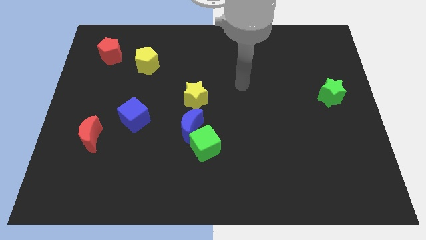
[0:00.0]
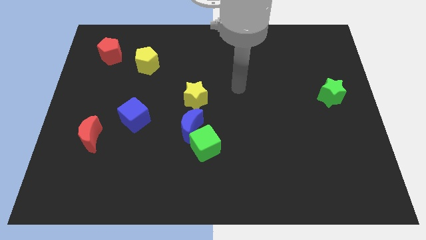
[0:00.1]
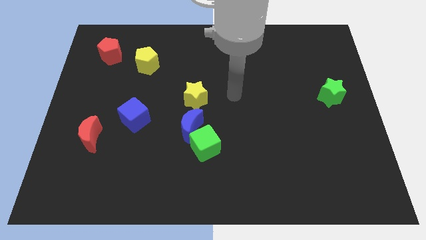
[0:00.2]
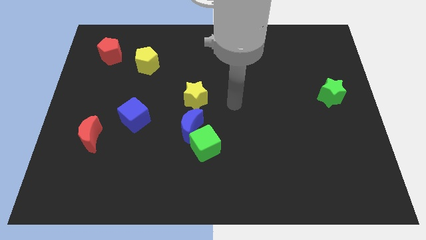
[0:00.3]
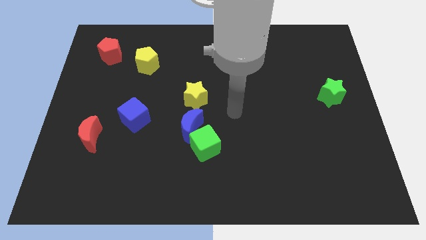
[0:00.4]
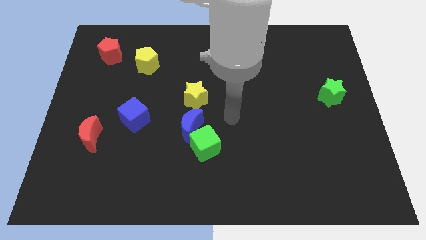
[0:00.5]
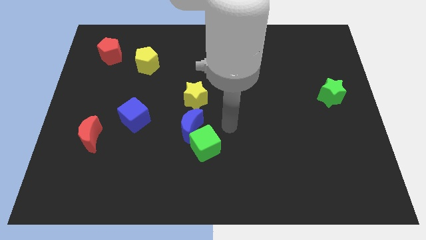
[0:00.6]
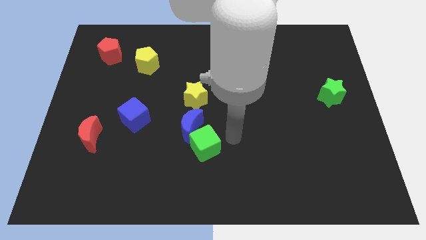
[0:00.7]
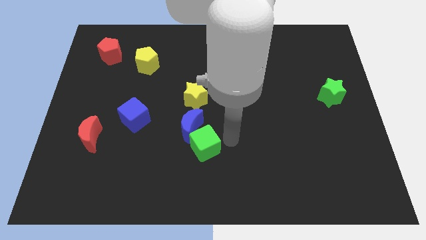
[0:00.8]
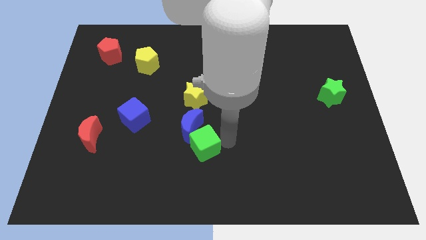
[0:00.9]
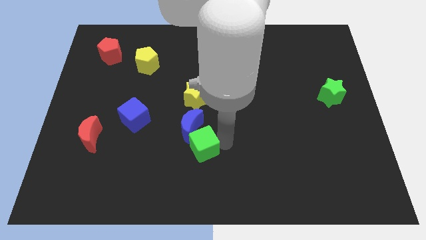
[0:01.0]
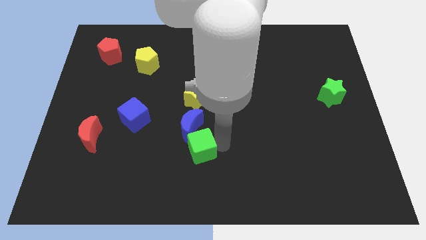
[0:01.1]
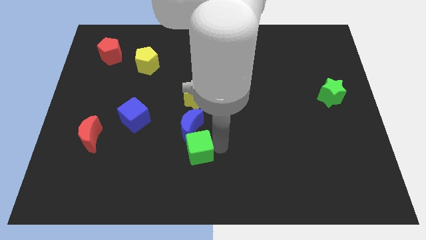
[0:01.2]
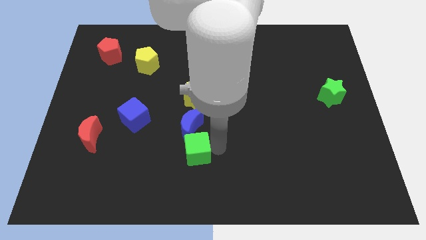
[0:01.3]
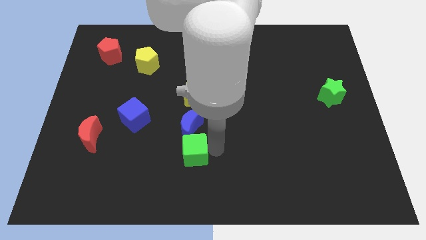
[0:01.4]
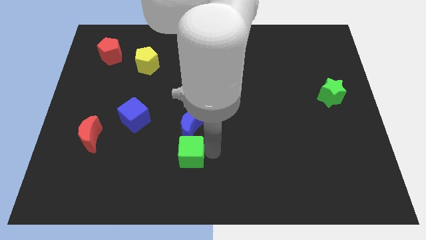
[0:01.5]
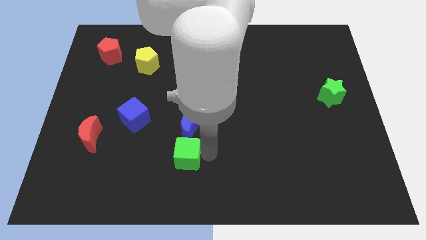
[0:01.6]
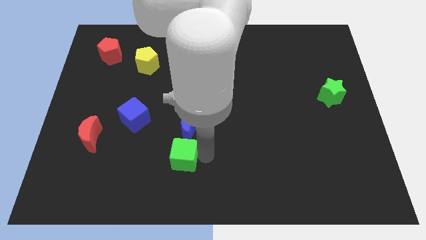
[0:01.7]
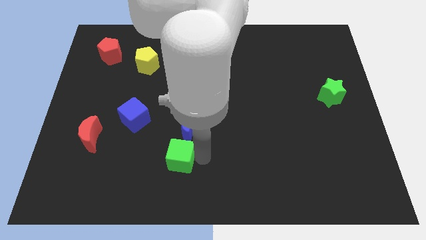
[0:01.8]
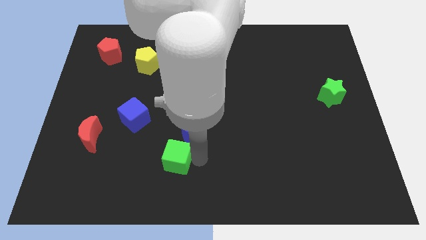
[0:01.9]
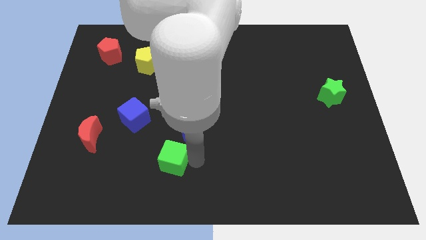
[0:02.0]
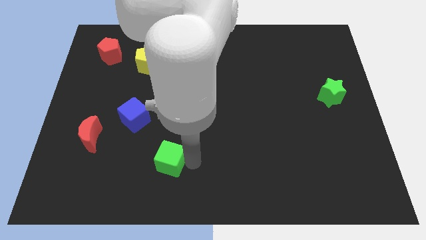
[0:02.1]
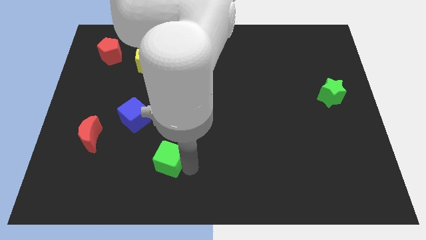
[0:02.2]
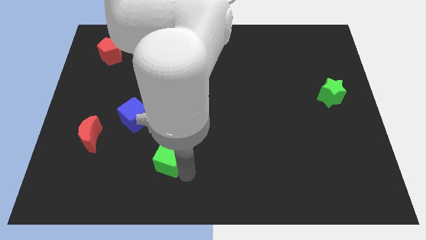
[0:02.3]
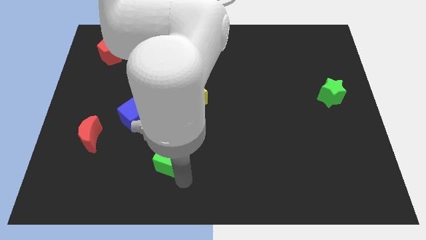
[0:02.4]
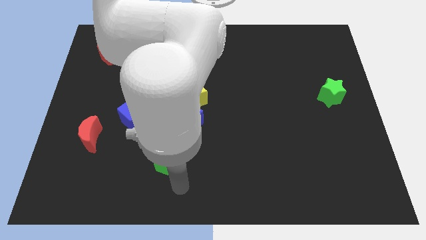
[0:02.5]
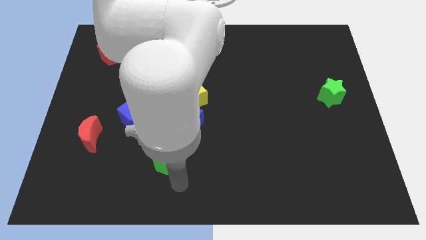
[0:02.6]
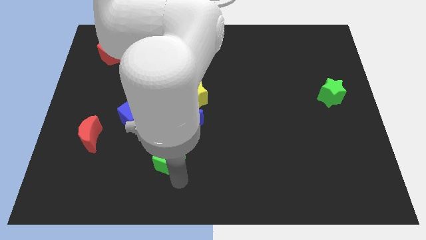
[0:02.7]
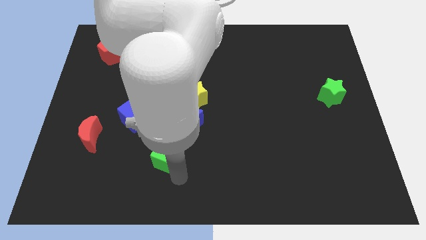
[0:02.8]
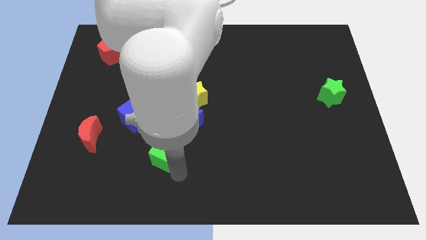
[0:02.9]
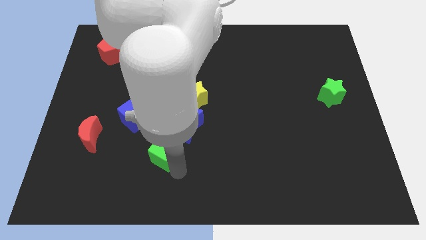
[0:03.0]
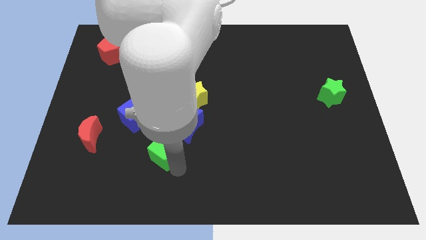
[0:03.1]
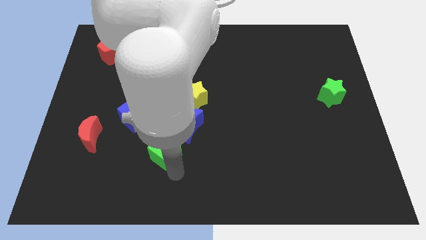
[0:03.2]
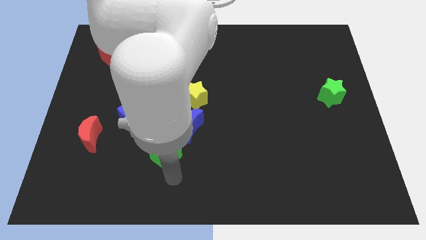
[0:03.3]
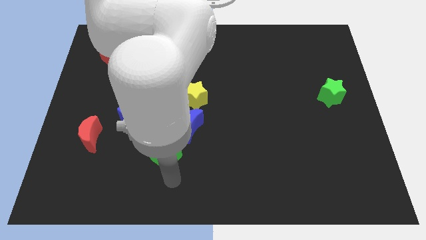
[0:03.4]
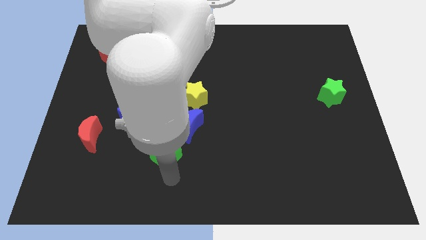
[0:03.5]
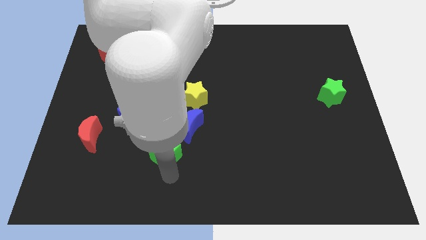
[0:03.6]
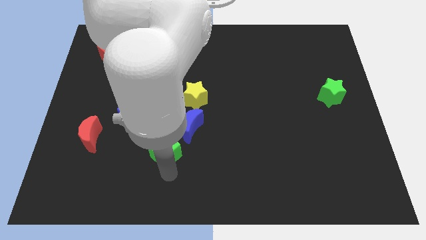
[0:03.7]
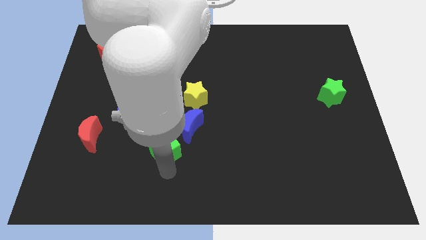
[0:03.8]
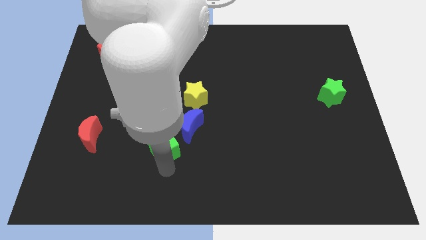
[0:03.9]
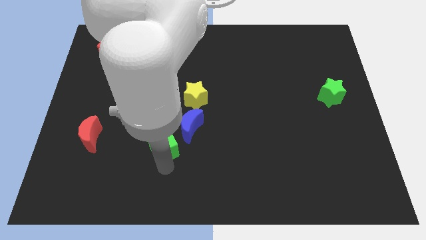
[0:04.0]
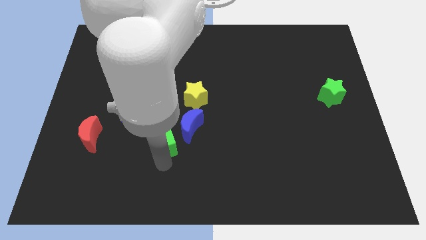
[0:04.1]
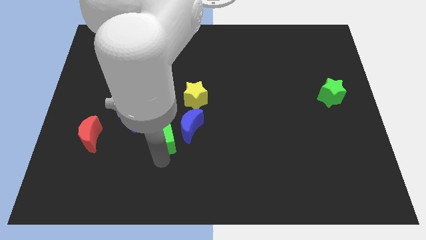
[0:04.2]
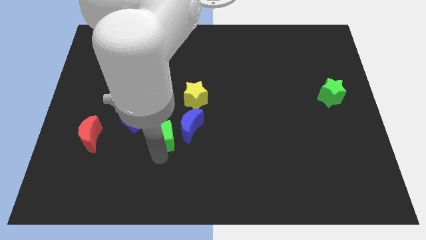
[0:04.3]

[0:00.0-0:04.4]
push the green cube a little up and then left

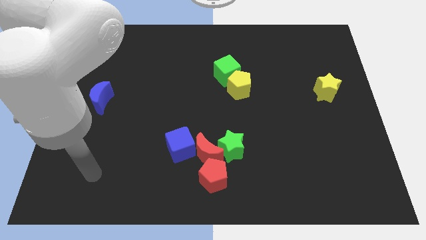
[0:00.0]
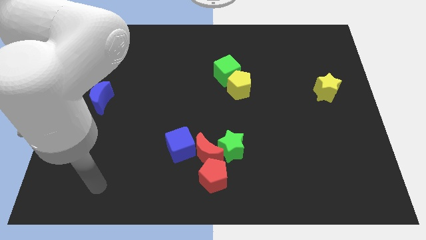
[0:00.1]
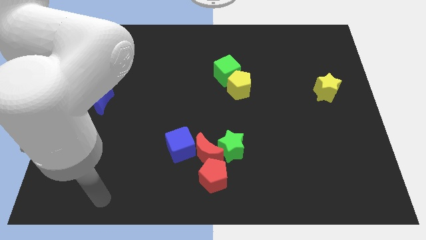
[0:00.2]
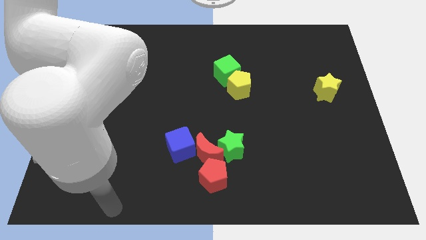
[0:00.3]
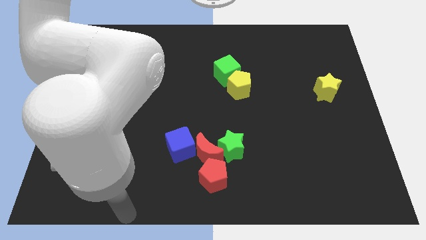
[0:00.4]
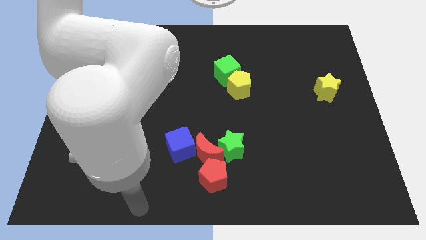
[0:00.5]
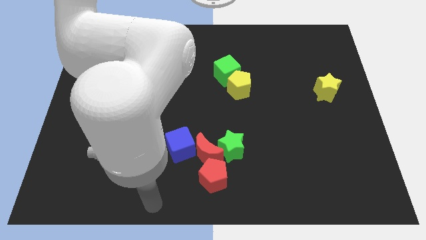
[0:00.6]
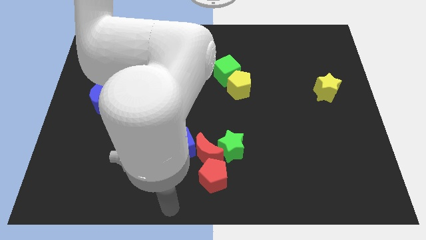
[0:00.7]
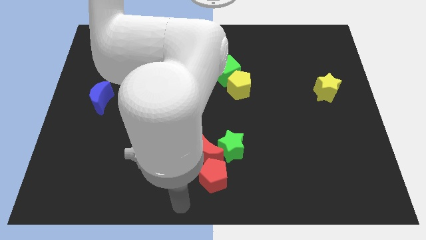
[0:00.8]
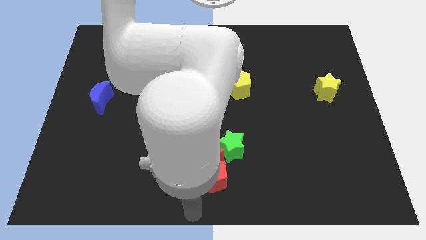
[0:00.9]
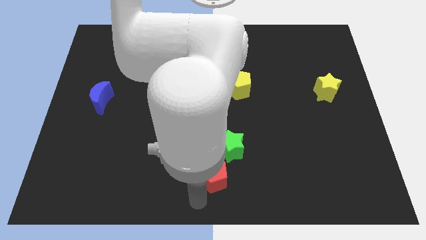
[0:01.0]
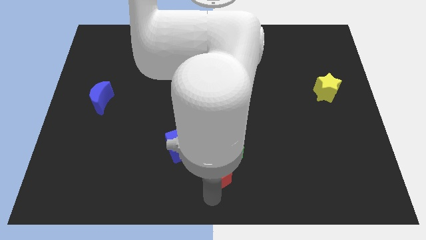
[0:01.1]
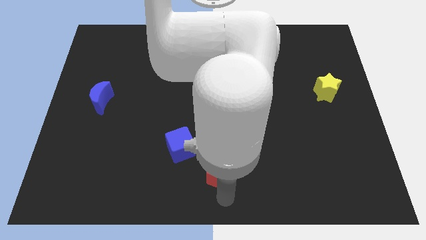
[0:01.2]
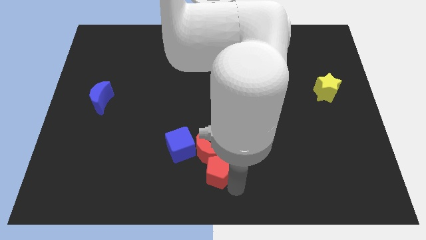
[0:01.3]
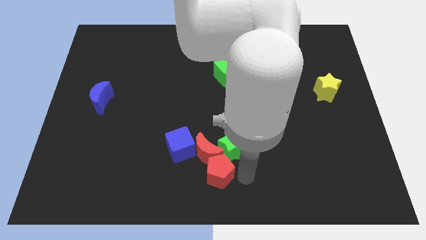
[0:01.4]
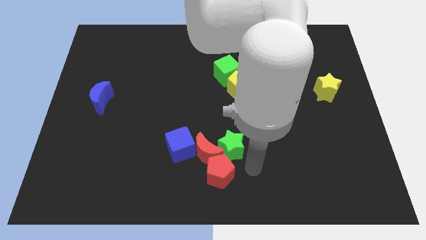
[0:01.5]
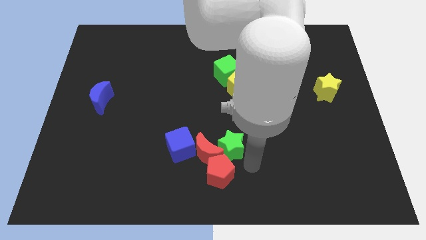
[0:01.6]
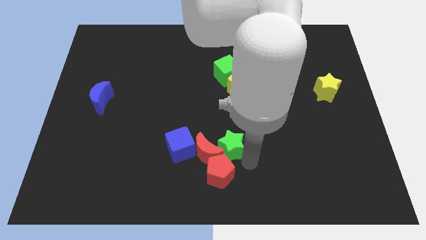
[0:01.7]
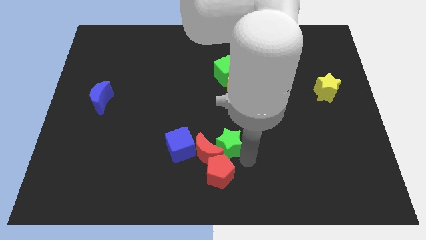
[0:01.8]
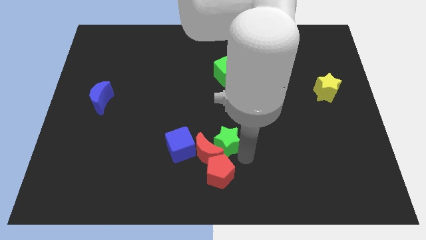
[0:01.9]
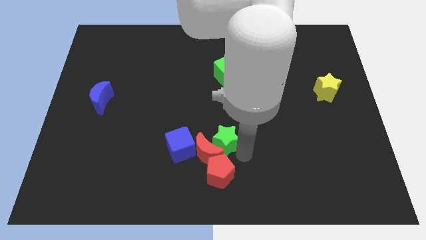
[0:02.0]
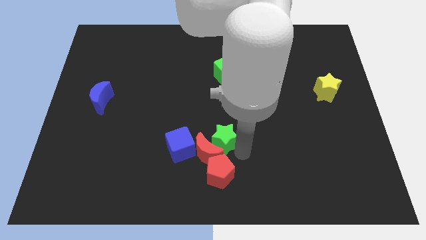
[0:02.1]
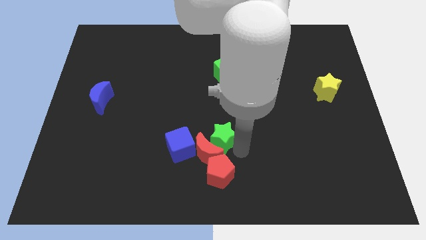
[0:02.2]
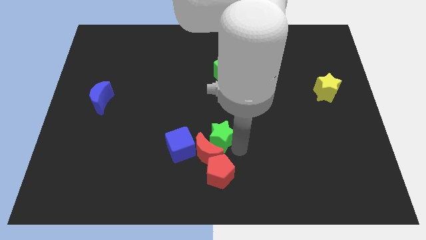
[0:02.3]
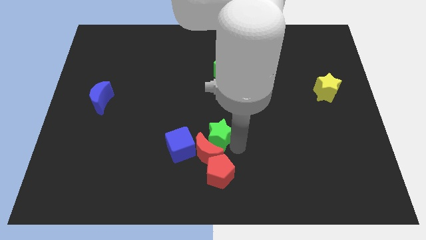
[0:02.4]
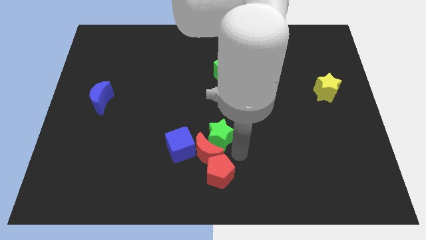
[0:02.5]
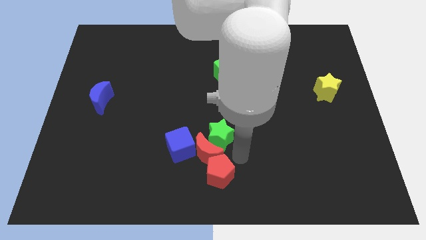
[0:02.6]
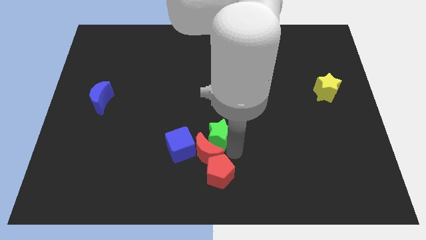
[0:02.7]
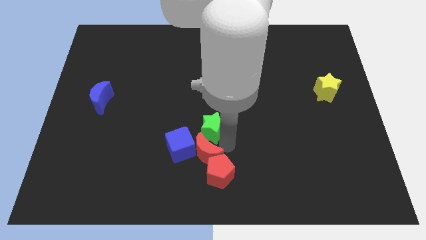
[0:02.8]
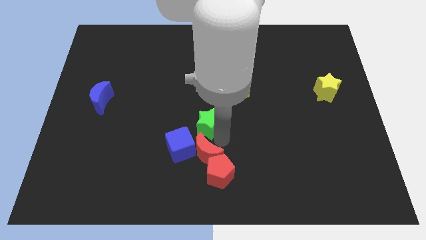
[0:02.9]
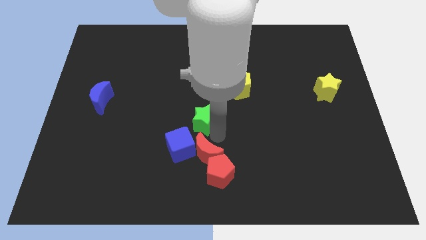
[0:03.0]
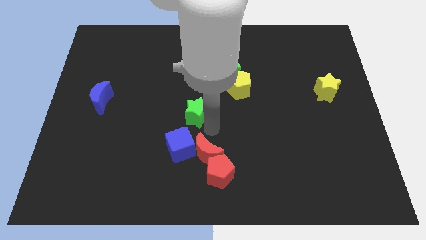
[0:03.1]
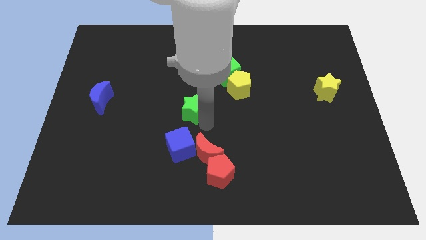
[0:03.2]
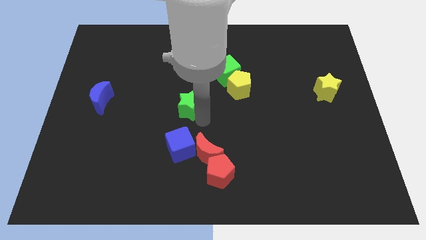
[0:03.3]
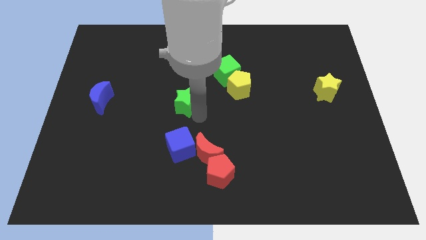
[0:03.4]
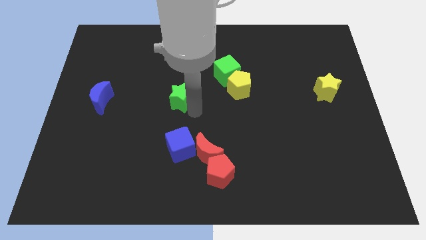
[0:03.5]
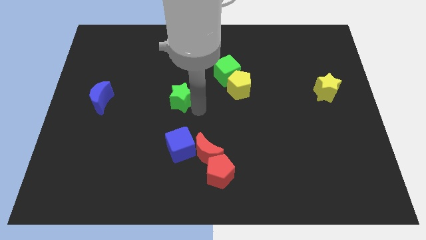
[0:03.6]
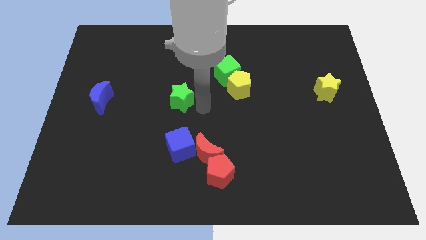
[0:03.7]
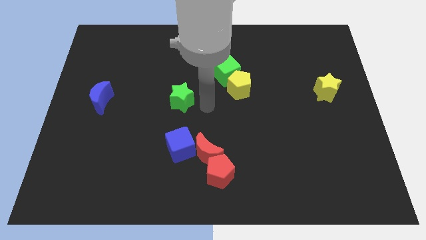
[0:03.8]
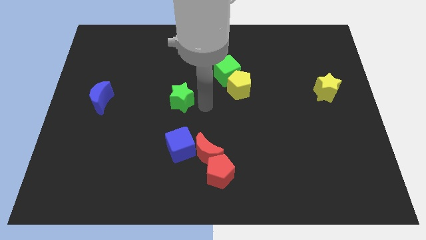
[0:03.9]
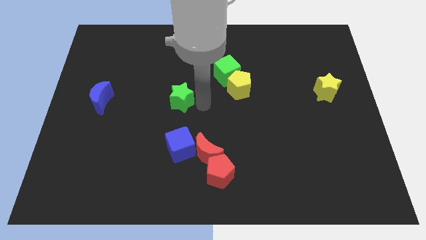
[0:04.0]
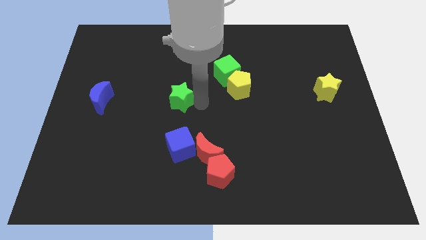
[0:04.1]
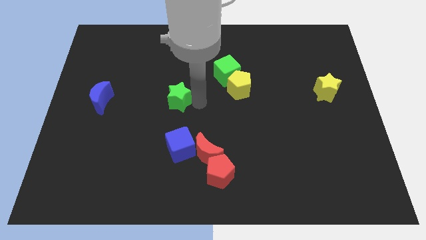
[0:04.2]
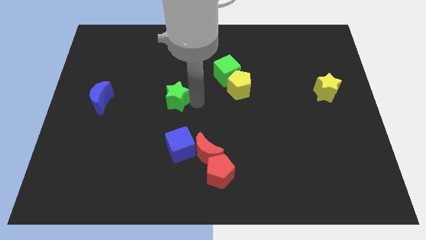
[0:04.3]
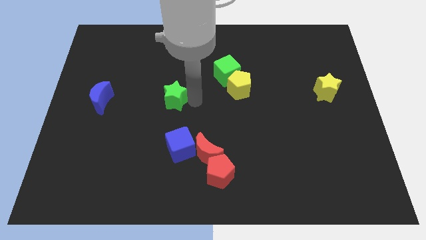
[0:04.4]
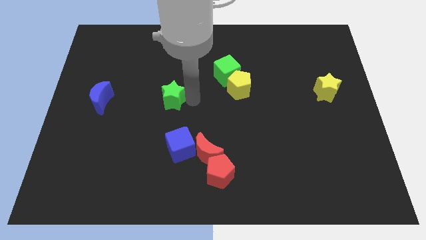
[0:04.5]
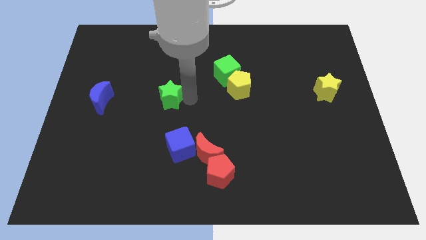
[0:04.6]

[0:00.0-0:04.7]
slide the green star up and left diagonally
